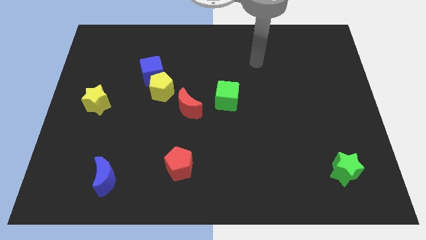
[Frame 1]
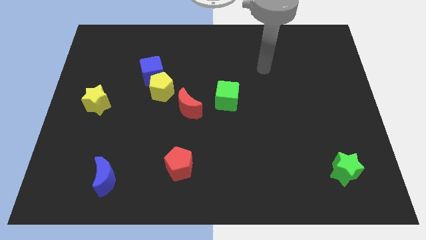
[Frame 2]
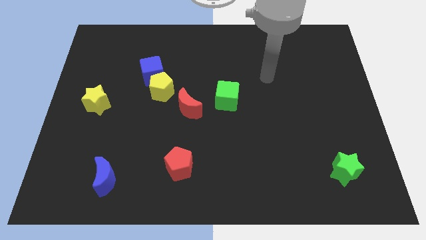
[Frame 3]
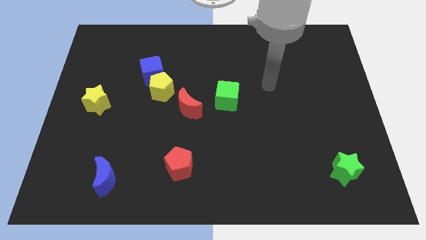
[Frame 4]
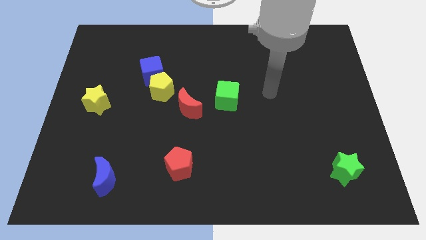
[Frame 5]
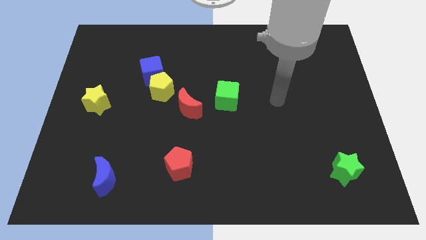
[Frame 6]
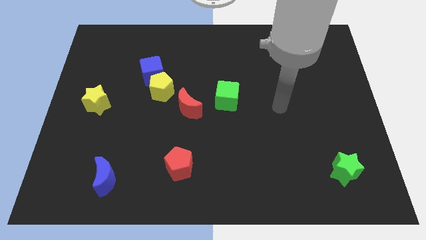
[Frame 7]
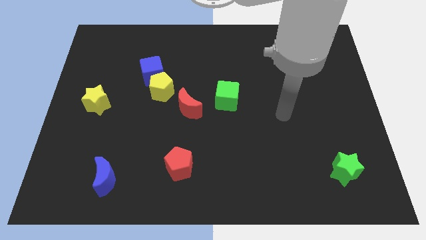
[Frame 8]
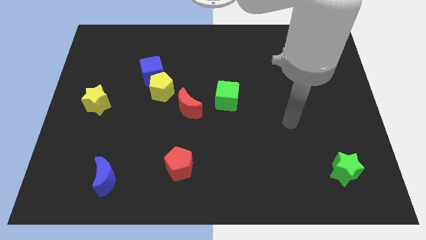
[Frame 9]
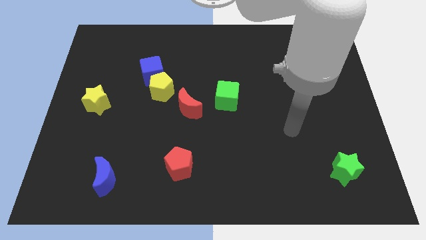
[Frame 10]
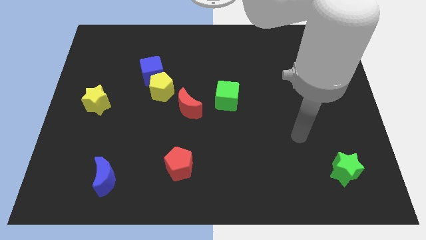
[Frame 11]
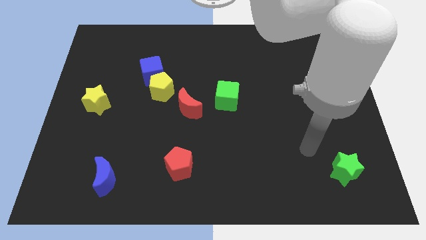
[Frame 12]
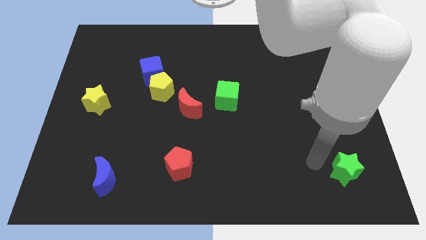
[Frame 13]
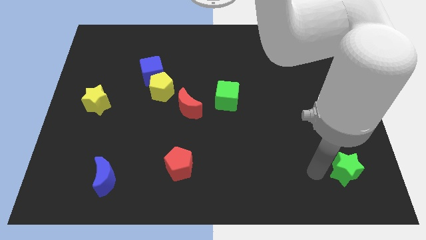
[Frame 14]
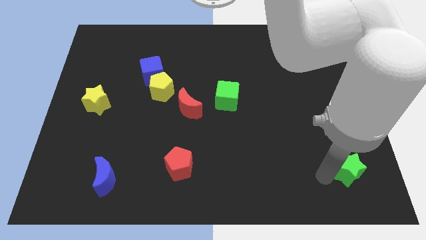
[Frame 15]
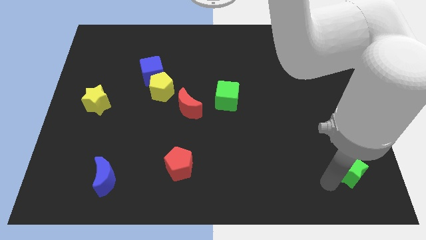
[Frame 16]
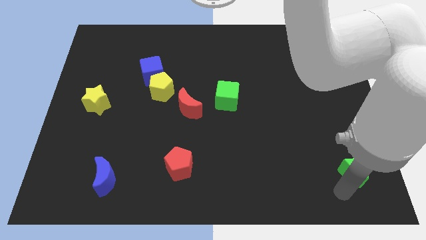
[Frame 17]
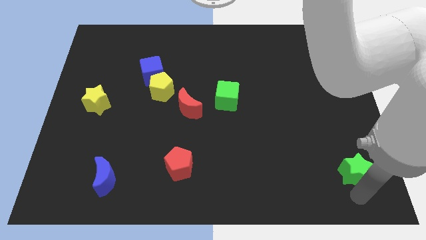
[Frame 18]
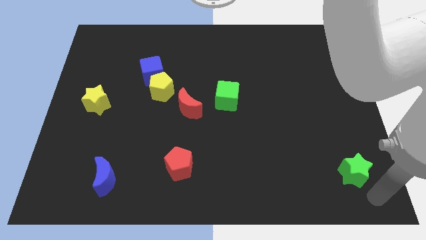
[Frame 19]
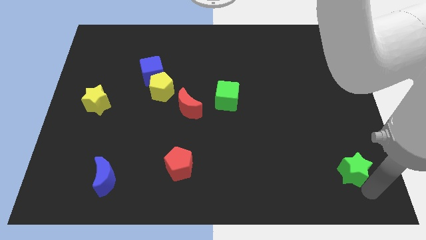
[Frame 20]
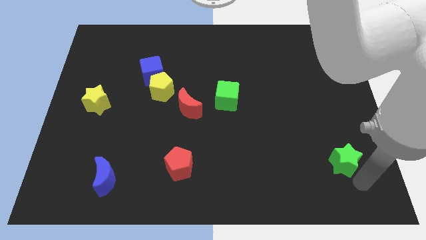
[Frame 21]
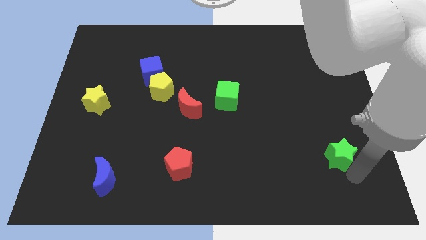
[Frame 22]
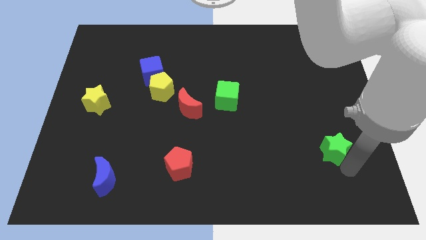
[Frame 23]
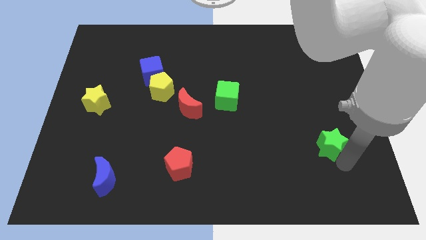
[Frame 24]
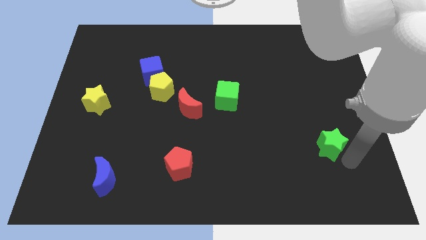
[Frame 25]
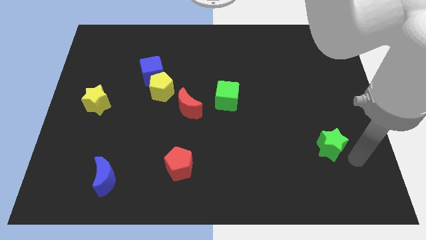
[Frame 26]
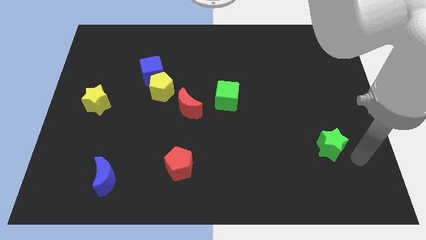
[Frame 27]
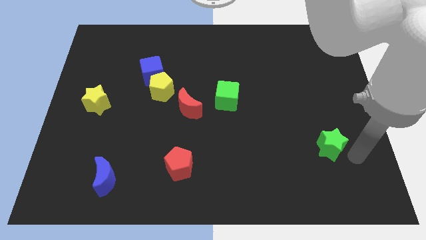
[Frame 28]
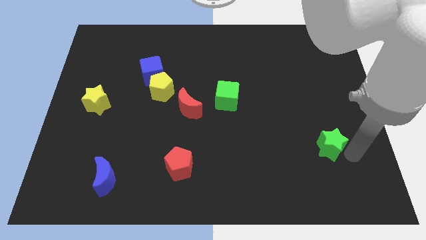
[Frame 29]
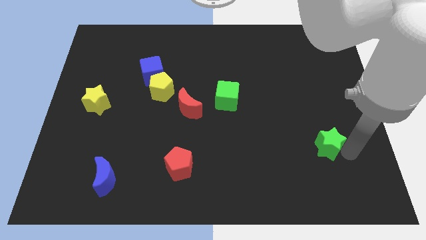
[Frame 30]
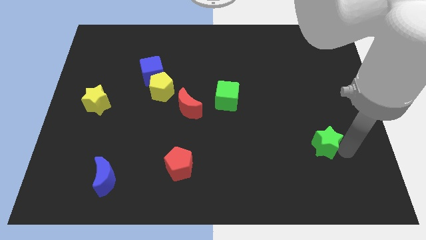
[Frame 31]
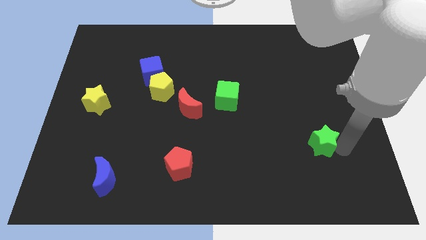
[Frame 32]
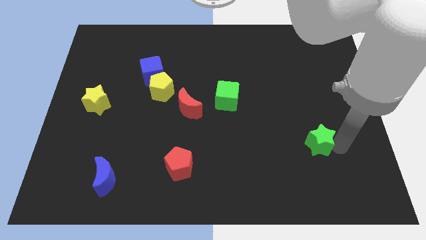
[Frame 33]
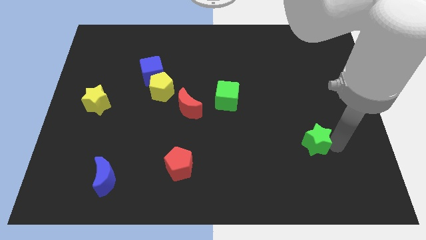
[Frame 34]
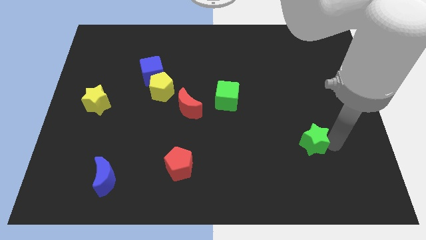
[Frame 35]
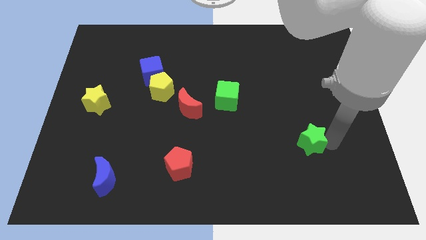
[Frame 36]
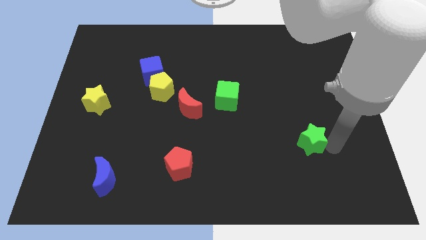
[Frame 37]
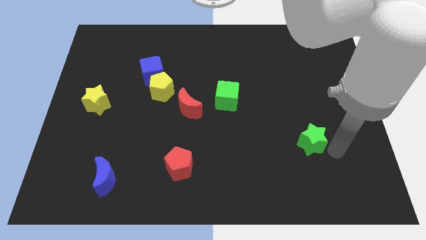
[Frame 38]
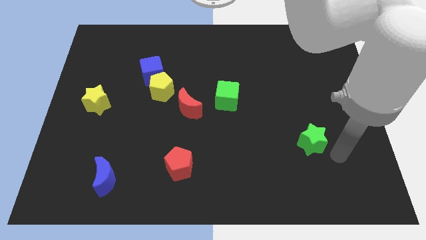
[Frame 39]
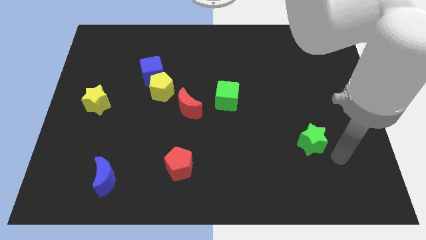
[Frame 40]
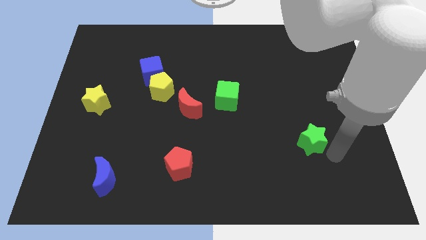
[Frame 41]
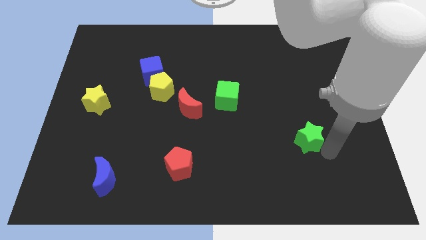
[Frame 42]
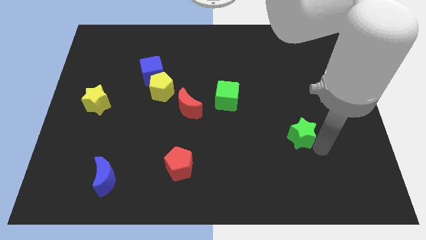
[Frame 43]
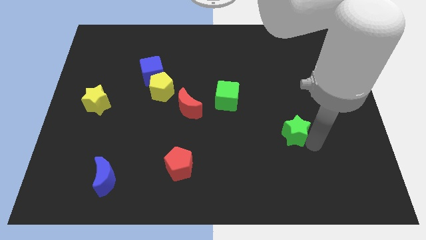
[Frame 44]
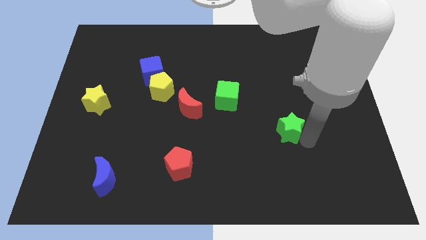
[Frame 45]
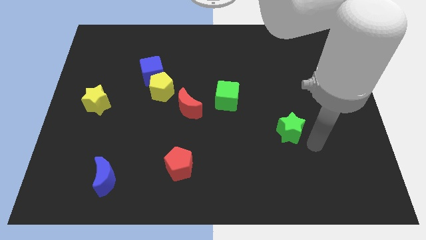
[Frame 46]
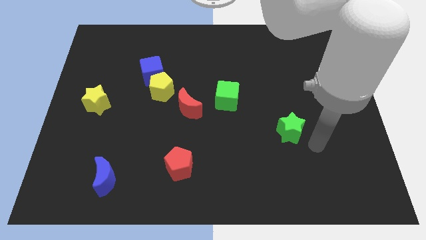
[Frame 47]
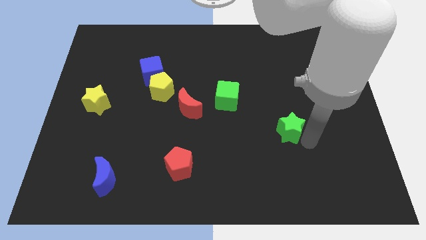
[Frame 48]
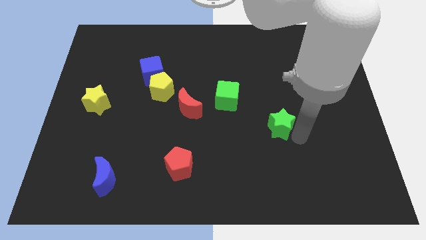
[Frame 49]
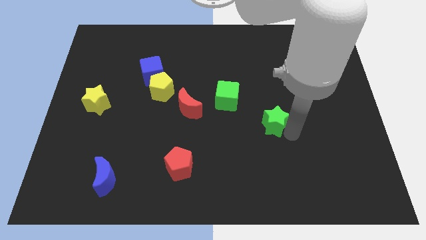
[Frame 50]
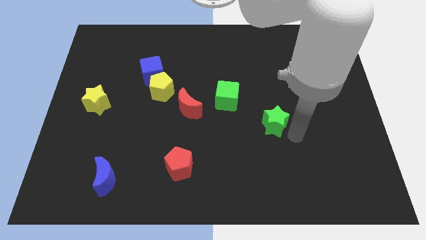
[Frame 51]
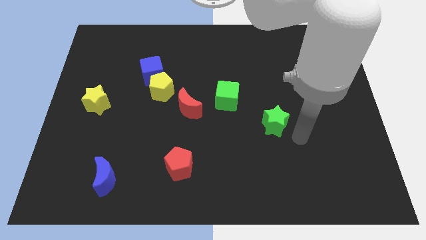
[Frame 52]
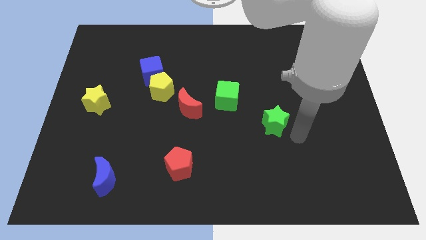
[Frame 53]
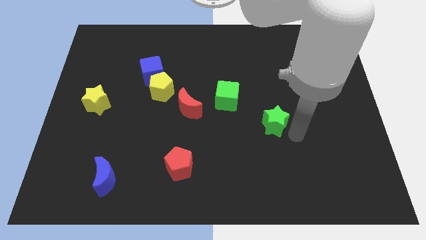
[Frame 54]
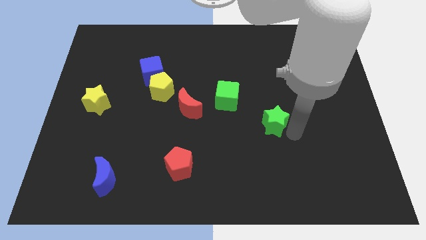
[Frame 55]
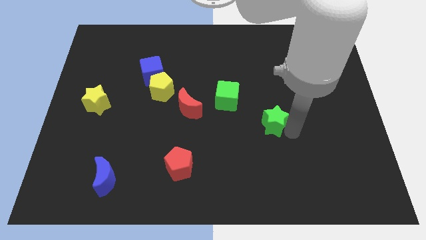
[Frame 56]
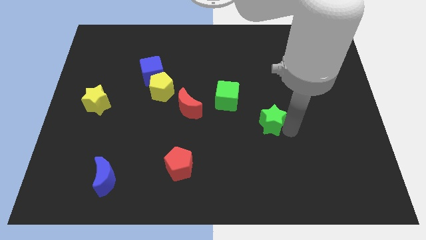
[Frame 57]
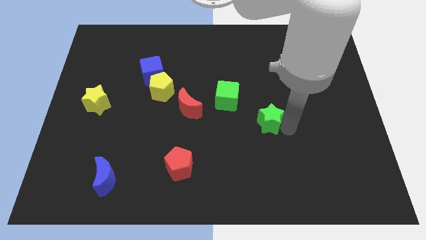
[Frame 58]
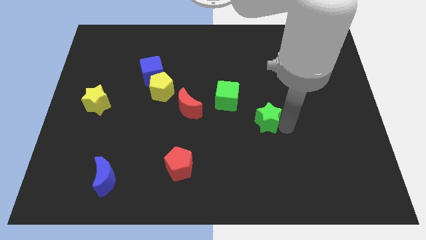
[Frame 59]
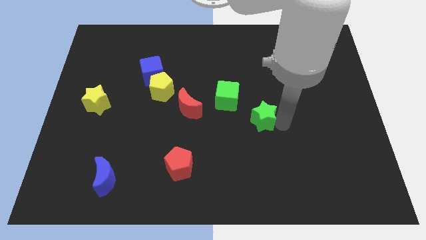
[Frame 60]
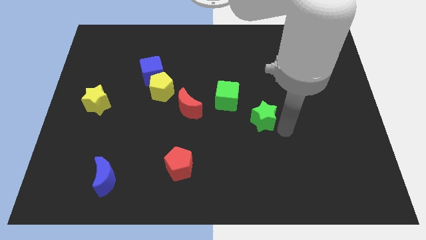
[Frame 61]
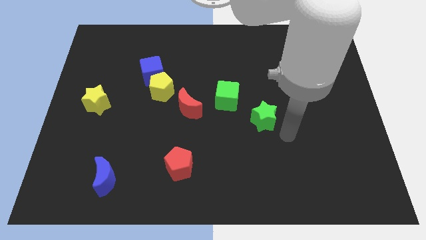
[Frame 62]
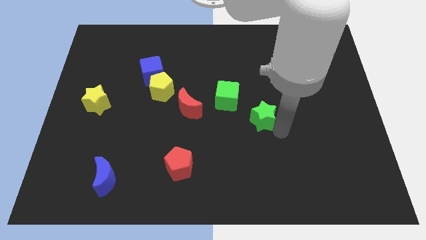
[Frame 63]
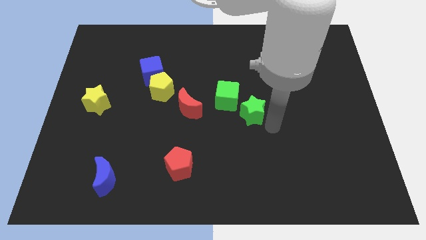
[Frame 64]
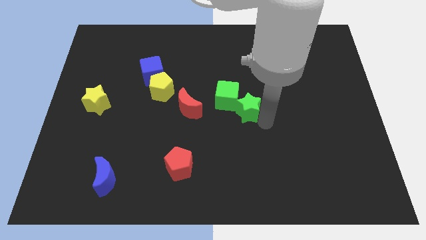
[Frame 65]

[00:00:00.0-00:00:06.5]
move the green star next to the green cube

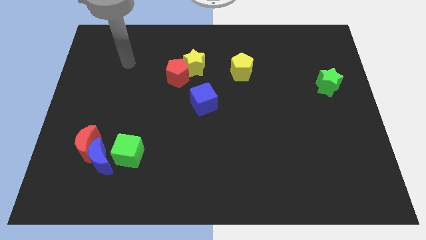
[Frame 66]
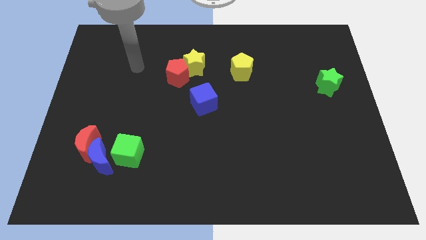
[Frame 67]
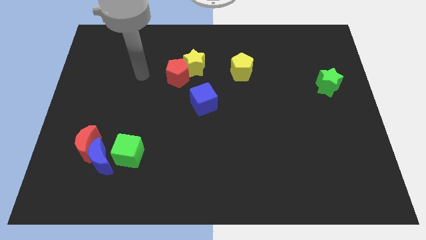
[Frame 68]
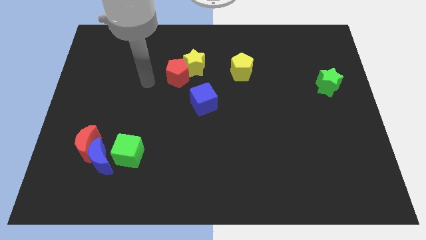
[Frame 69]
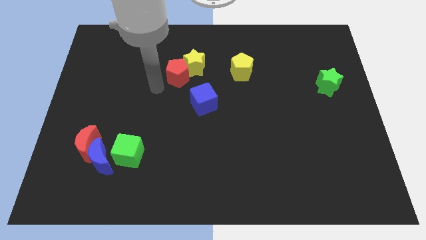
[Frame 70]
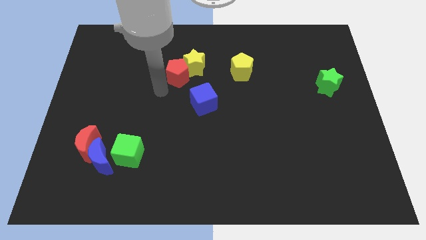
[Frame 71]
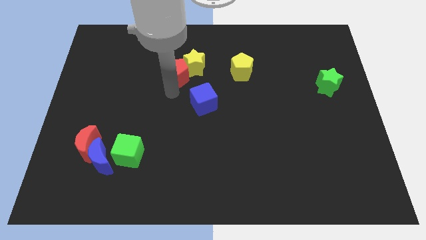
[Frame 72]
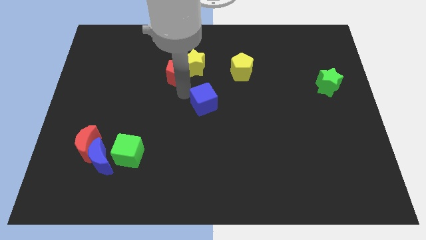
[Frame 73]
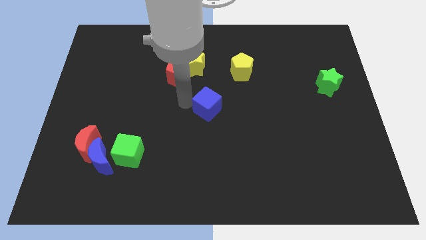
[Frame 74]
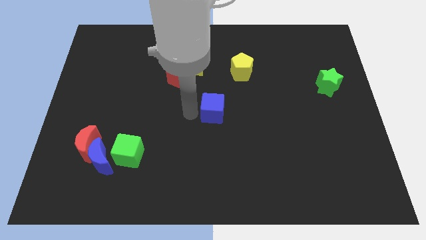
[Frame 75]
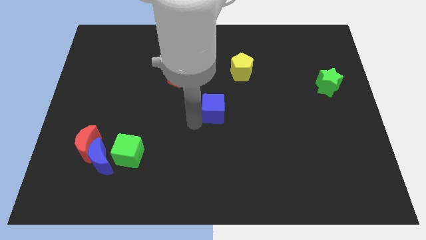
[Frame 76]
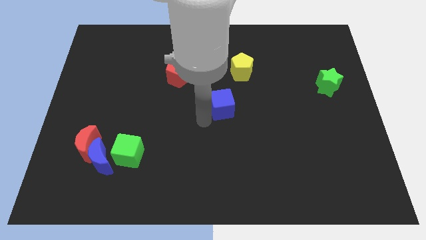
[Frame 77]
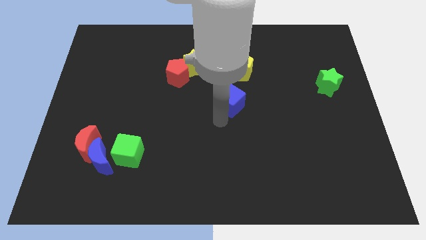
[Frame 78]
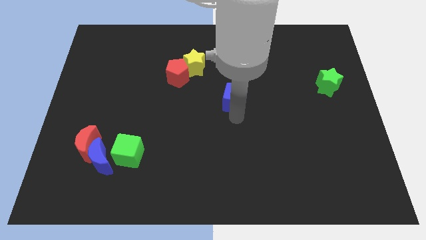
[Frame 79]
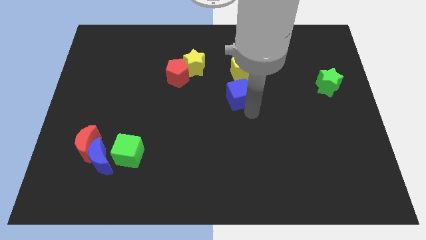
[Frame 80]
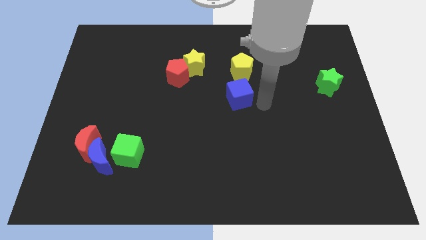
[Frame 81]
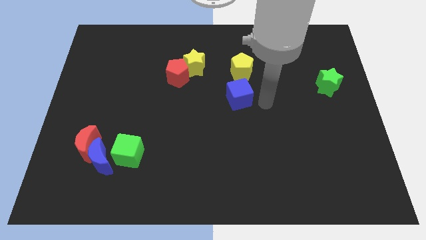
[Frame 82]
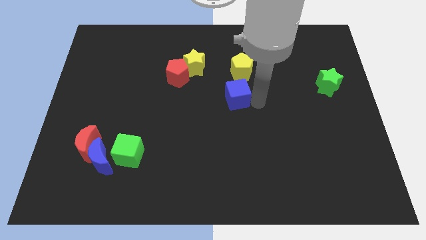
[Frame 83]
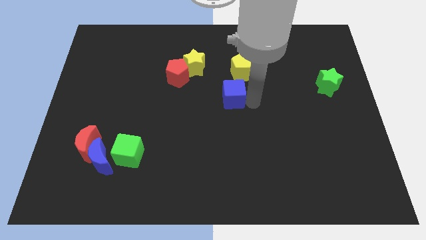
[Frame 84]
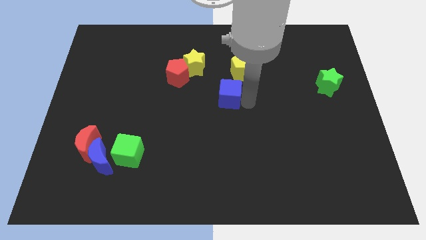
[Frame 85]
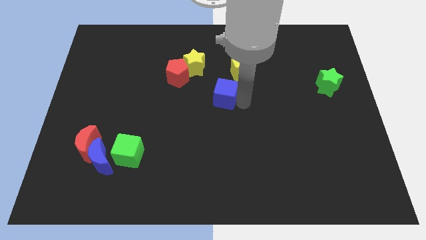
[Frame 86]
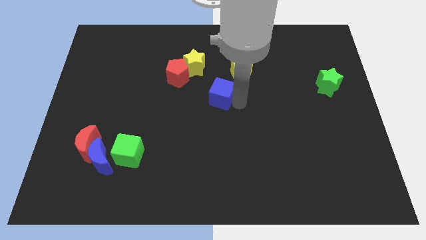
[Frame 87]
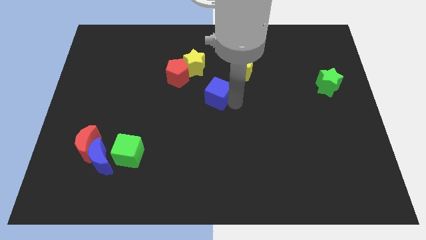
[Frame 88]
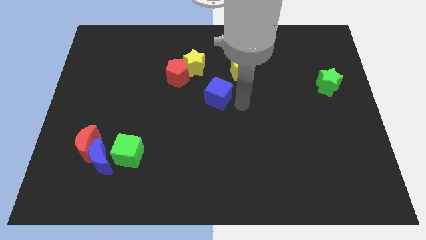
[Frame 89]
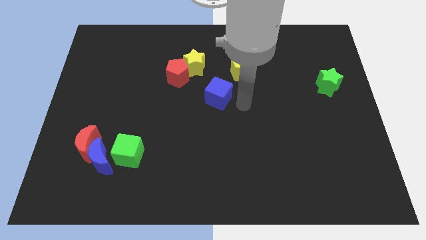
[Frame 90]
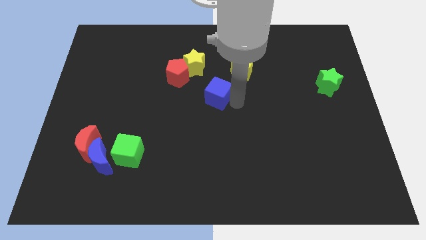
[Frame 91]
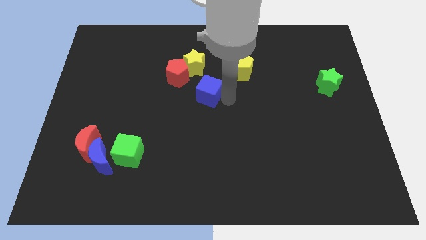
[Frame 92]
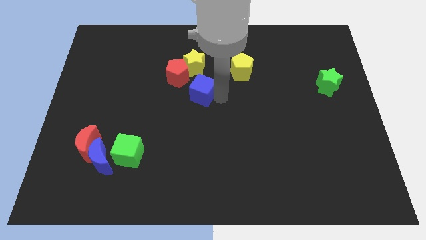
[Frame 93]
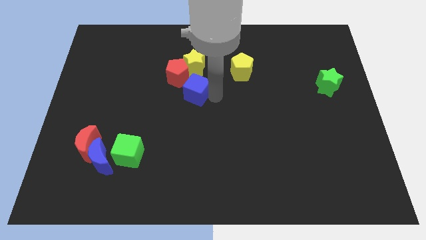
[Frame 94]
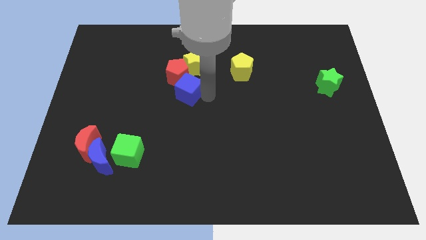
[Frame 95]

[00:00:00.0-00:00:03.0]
move the blue cube to the red pentagon
